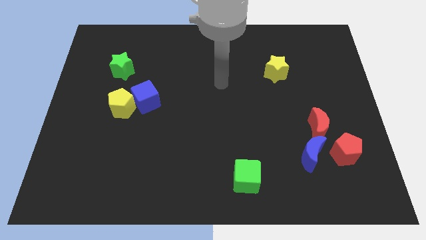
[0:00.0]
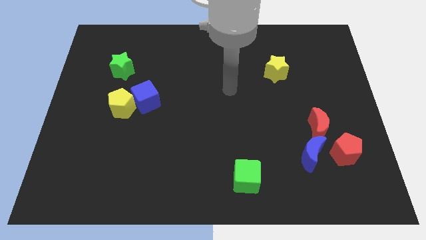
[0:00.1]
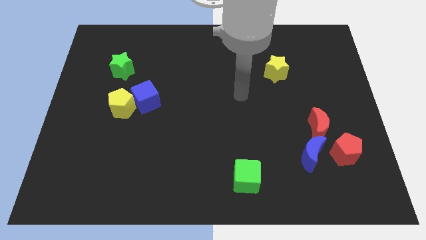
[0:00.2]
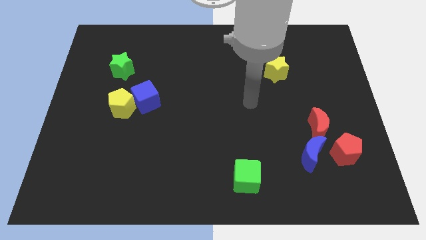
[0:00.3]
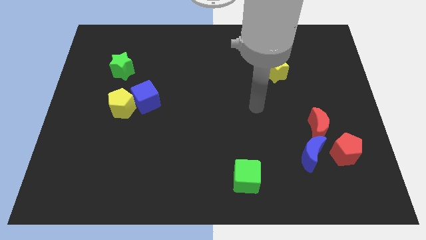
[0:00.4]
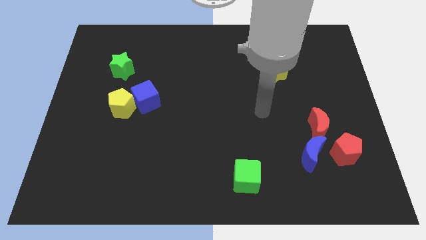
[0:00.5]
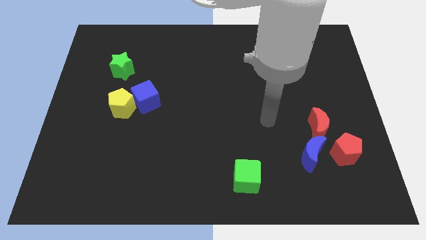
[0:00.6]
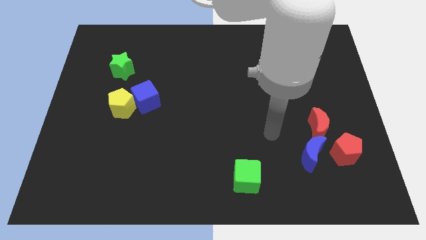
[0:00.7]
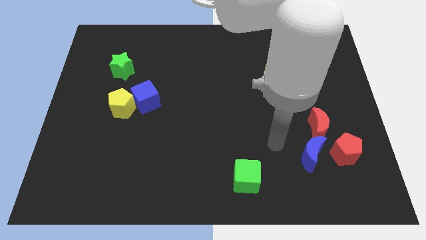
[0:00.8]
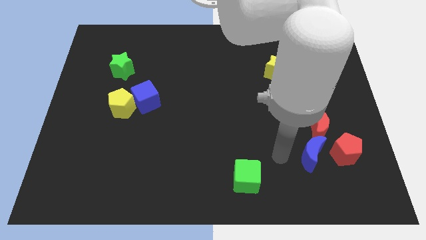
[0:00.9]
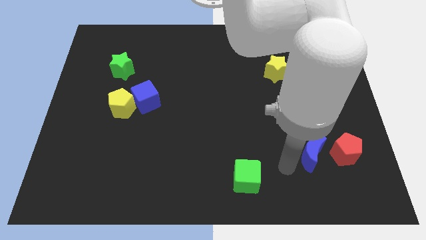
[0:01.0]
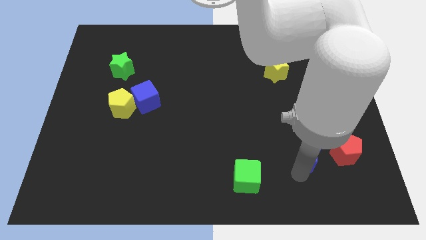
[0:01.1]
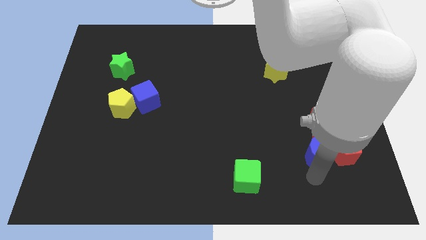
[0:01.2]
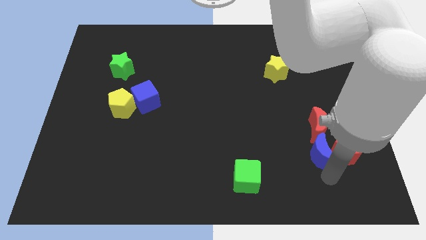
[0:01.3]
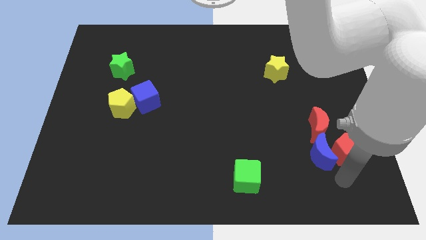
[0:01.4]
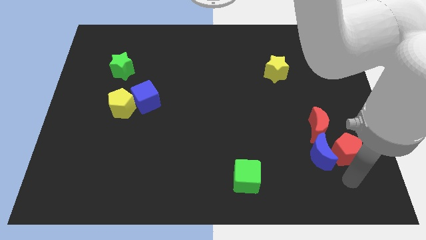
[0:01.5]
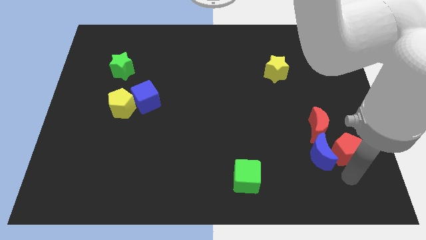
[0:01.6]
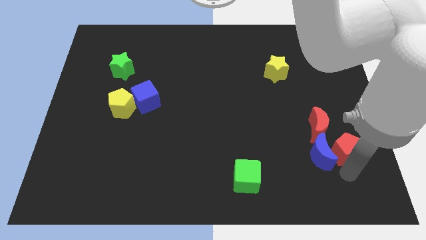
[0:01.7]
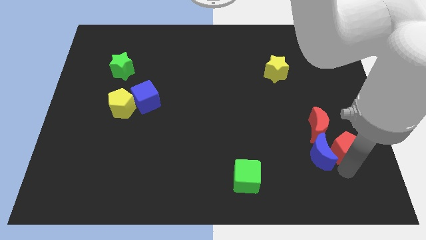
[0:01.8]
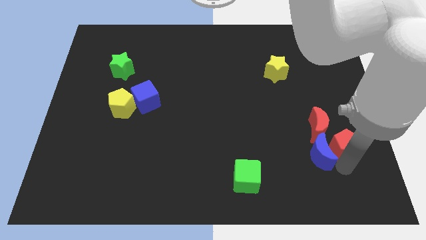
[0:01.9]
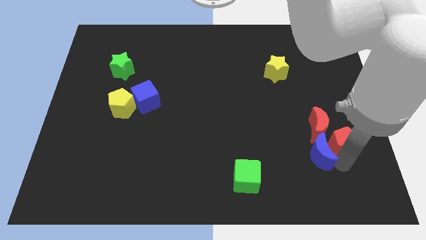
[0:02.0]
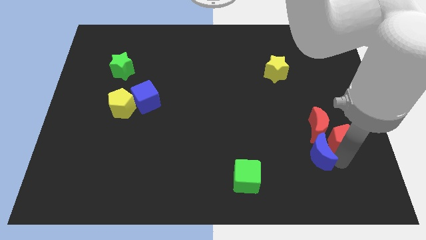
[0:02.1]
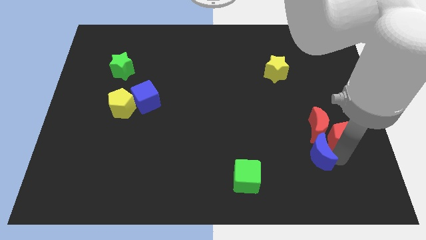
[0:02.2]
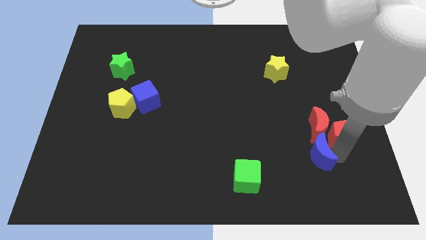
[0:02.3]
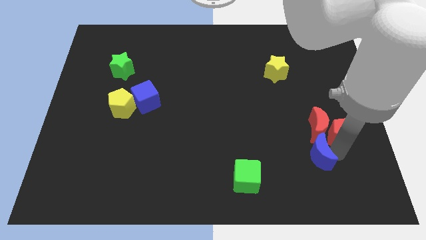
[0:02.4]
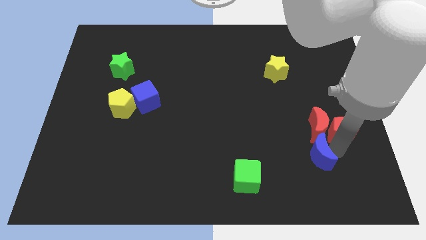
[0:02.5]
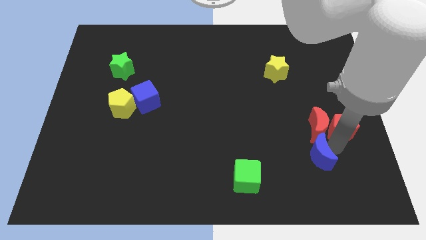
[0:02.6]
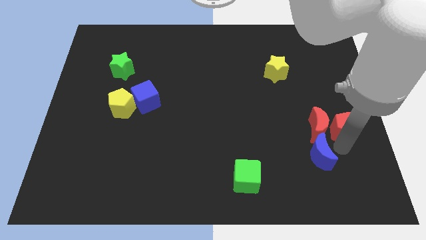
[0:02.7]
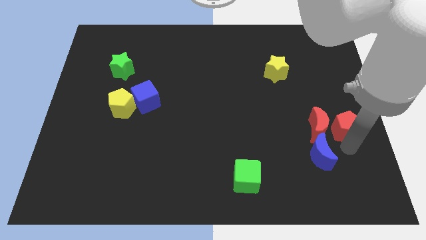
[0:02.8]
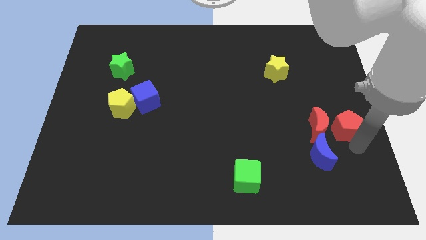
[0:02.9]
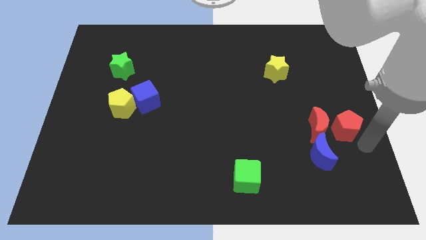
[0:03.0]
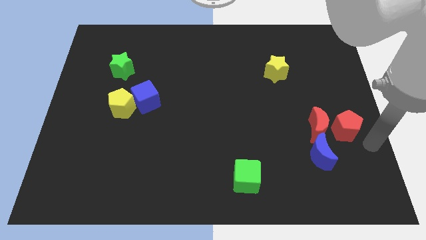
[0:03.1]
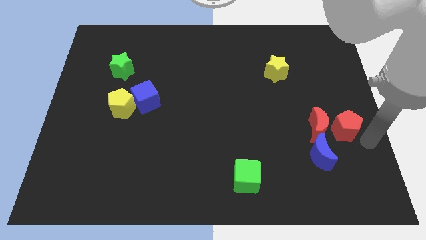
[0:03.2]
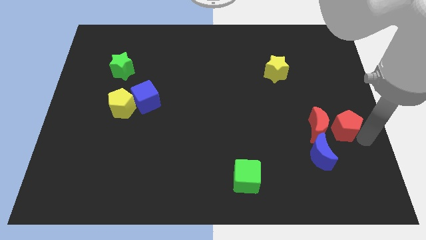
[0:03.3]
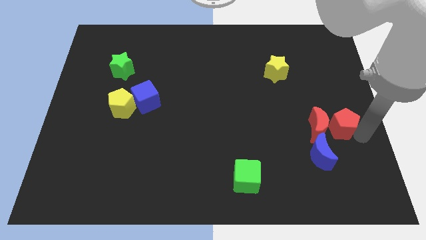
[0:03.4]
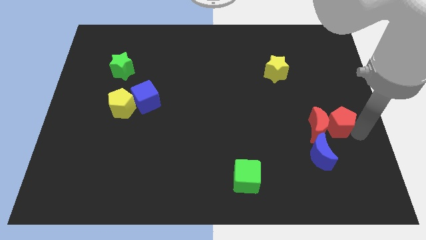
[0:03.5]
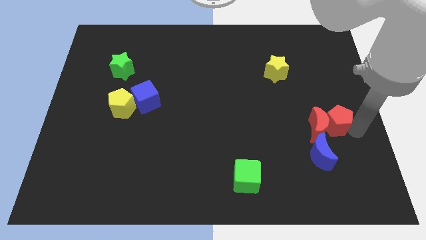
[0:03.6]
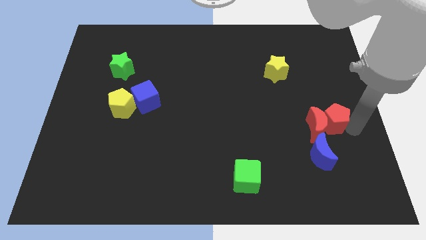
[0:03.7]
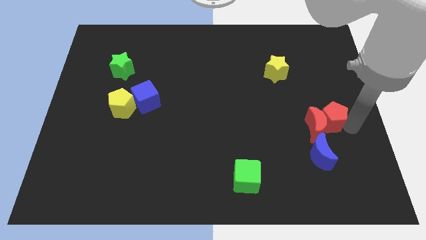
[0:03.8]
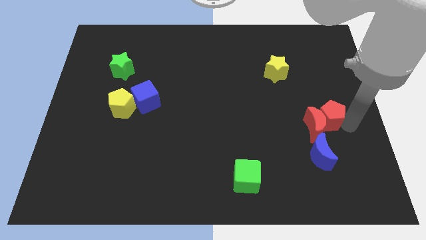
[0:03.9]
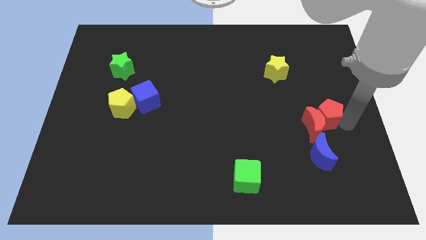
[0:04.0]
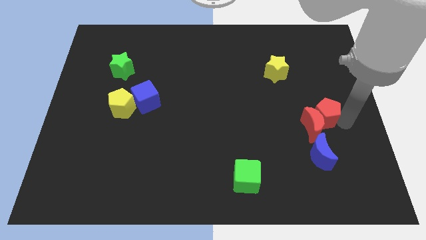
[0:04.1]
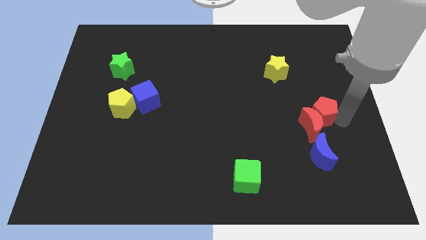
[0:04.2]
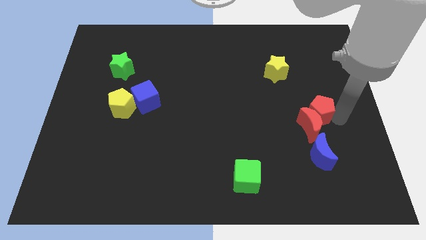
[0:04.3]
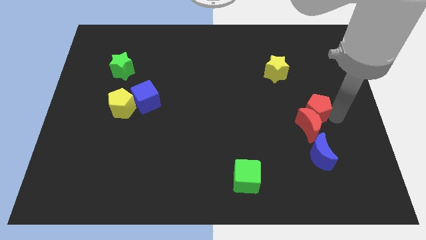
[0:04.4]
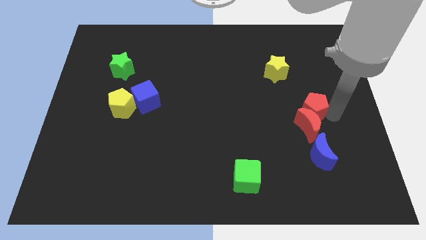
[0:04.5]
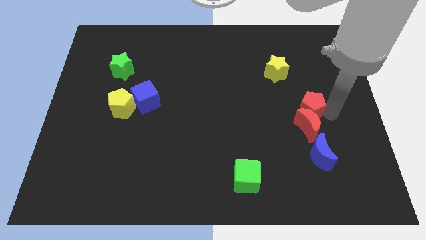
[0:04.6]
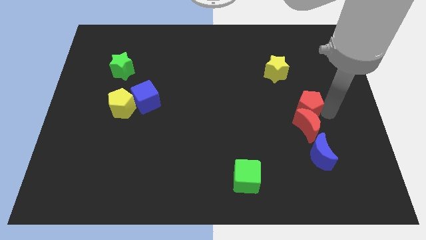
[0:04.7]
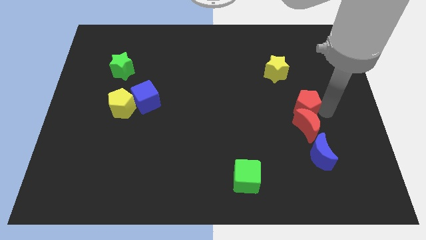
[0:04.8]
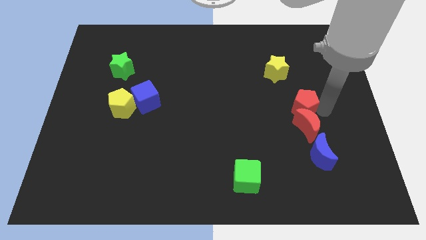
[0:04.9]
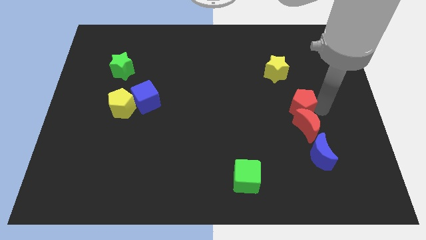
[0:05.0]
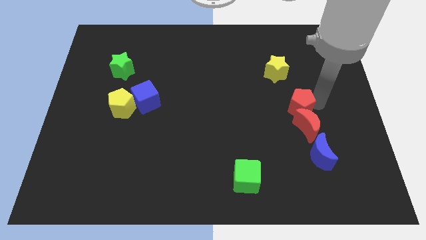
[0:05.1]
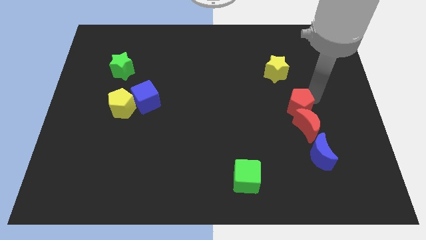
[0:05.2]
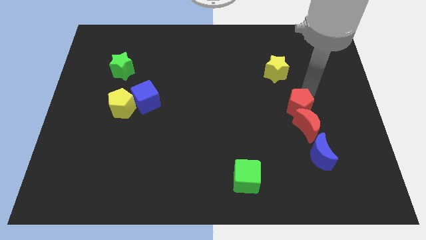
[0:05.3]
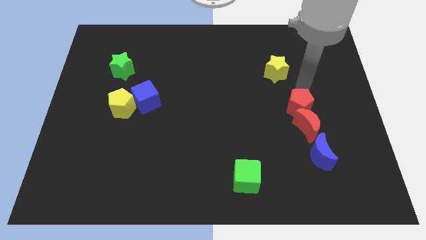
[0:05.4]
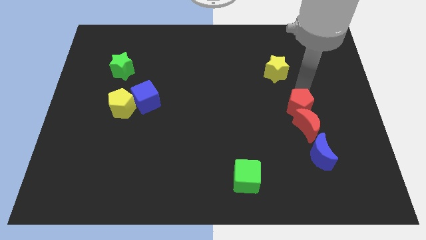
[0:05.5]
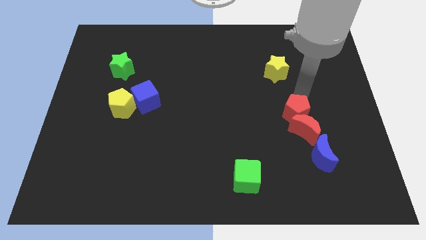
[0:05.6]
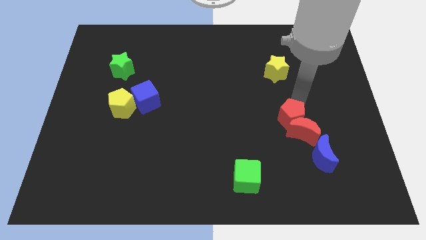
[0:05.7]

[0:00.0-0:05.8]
move the red pentagon to the top left of the blue moon

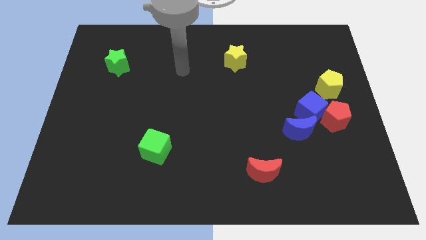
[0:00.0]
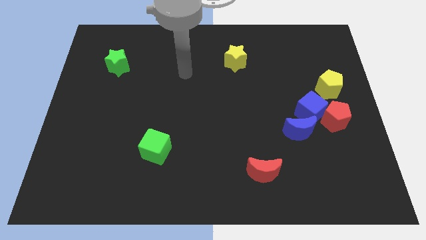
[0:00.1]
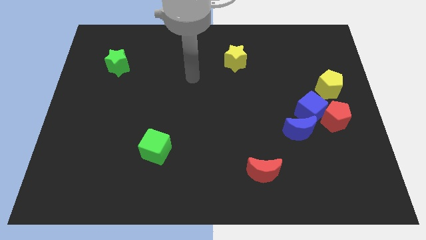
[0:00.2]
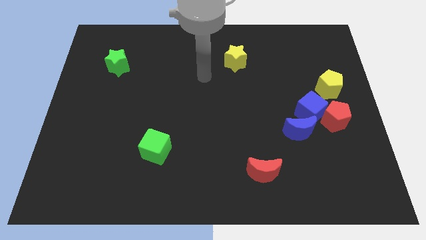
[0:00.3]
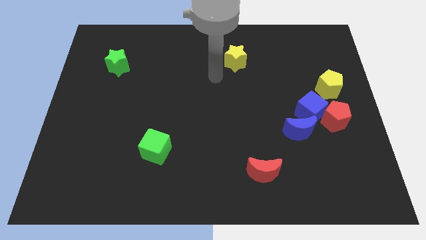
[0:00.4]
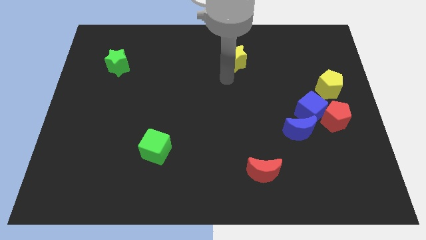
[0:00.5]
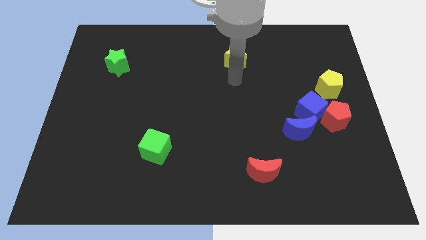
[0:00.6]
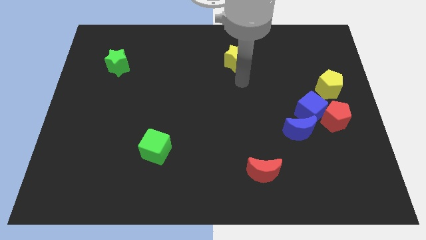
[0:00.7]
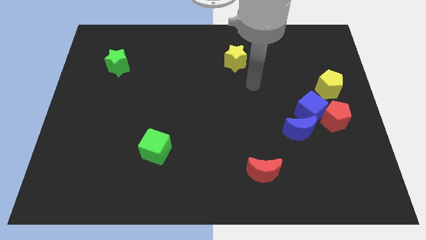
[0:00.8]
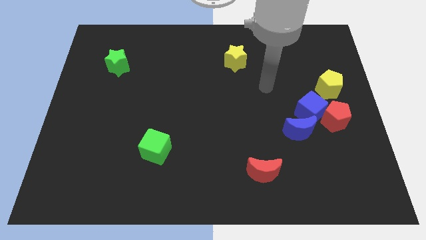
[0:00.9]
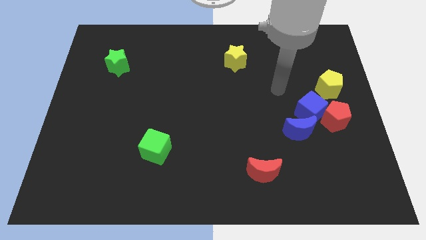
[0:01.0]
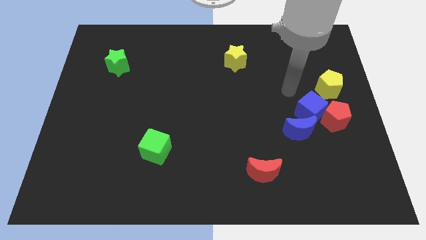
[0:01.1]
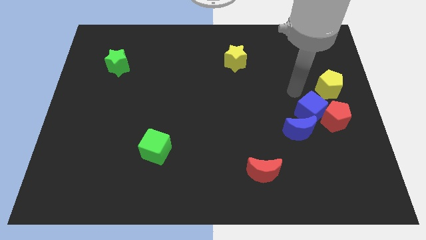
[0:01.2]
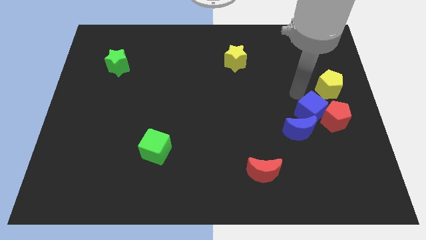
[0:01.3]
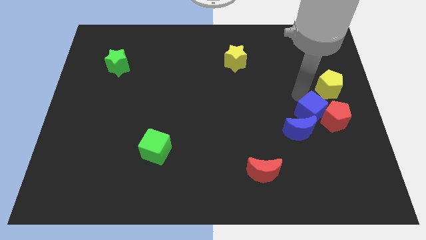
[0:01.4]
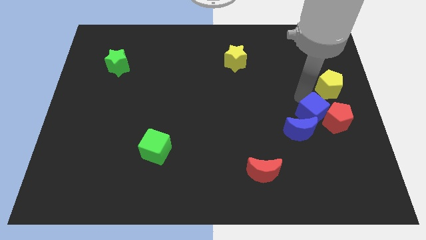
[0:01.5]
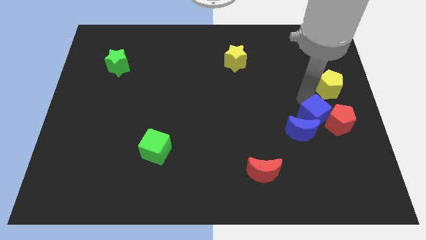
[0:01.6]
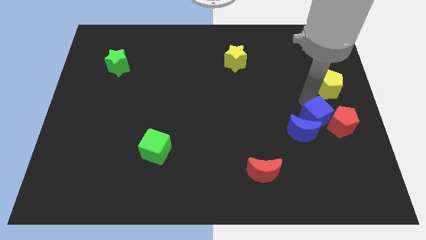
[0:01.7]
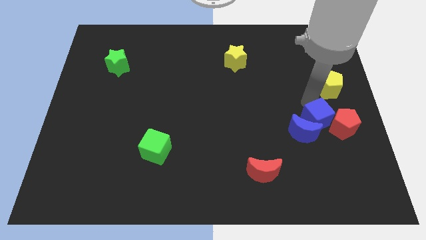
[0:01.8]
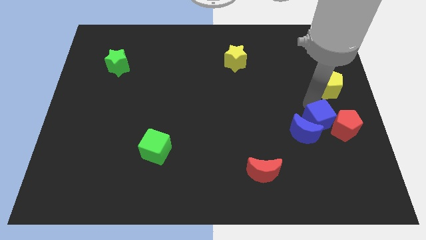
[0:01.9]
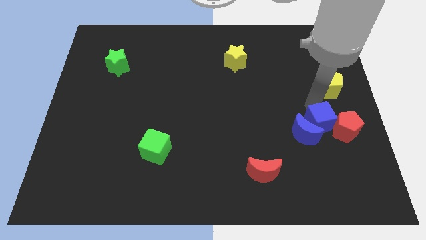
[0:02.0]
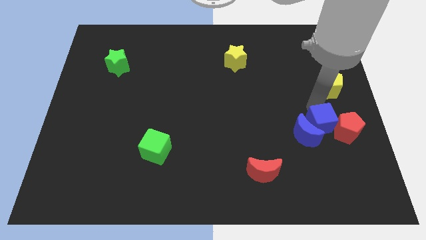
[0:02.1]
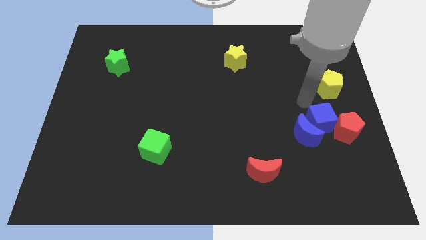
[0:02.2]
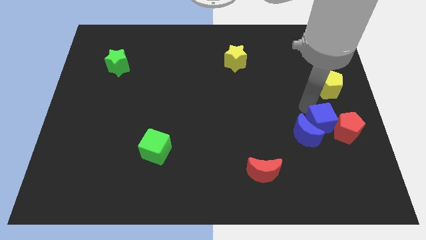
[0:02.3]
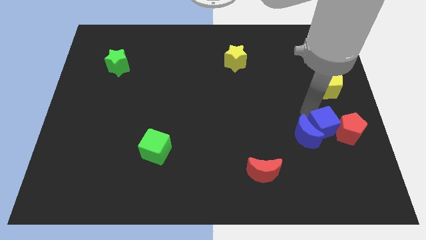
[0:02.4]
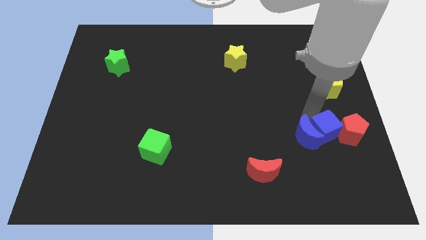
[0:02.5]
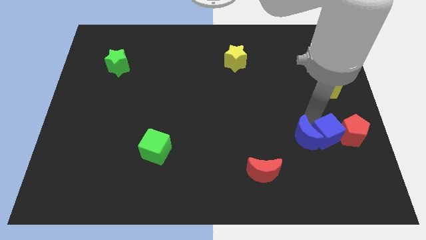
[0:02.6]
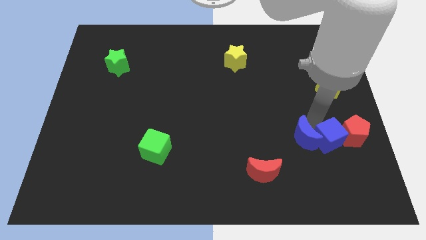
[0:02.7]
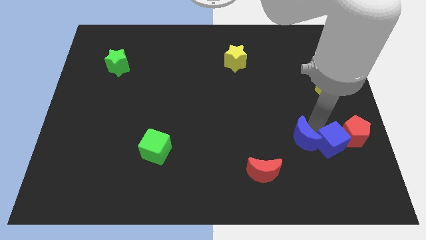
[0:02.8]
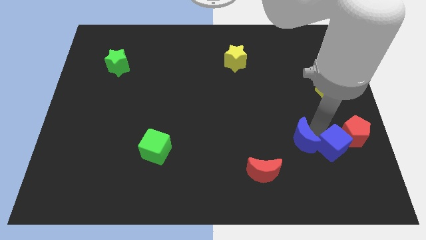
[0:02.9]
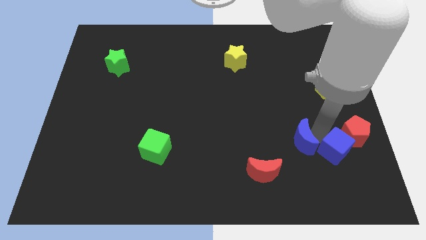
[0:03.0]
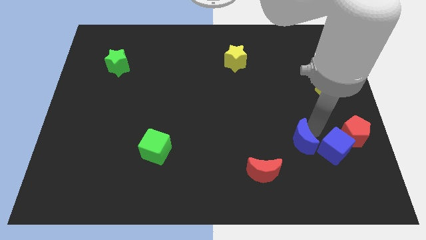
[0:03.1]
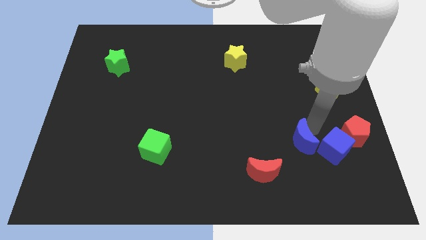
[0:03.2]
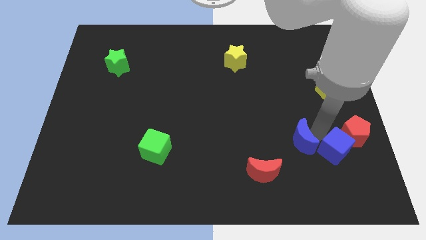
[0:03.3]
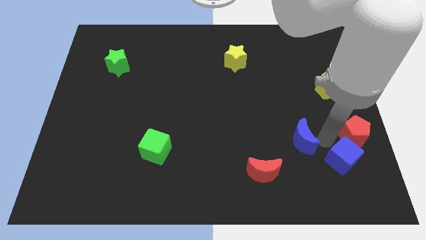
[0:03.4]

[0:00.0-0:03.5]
slide the blue cube below the red pentagon
